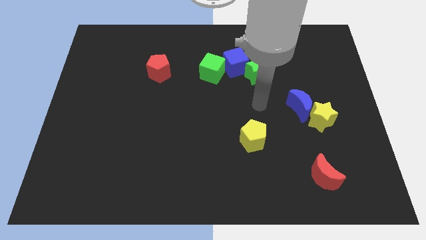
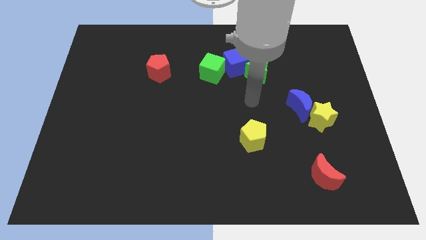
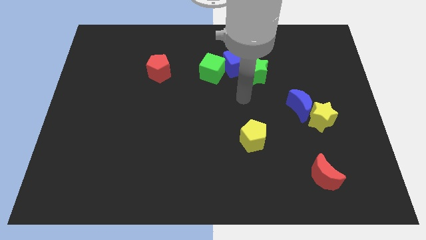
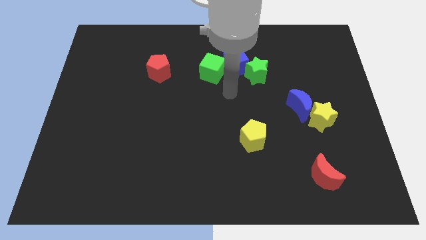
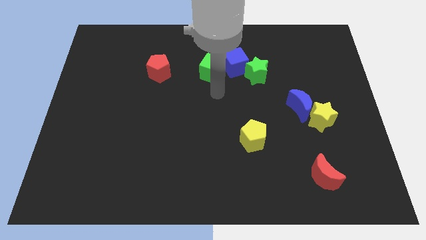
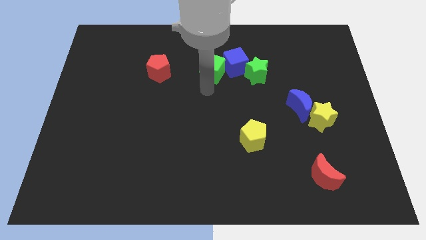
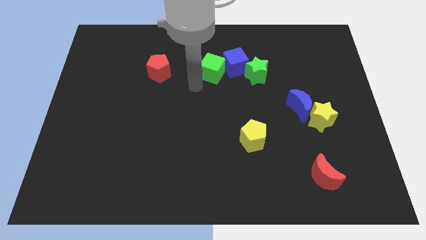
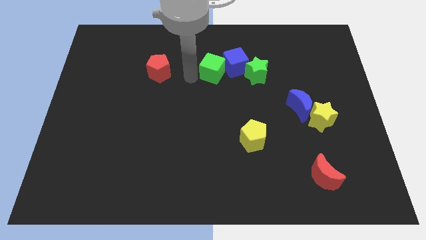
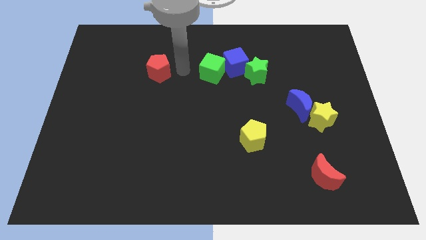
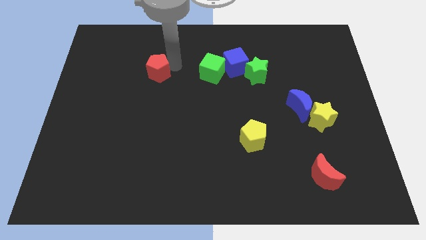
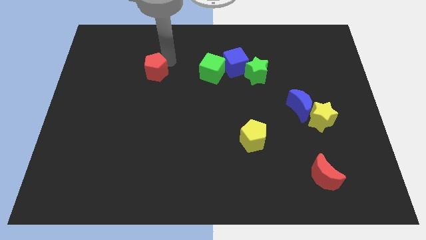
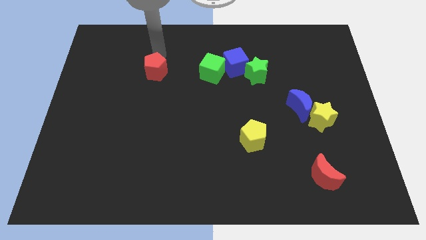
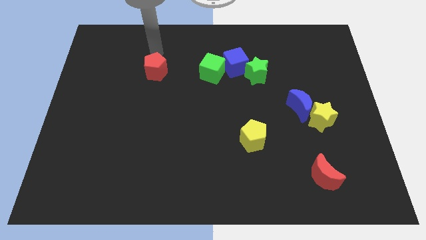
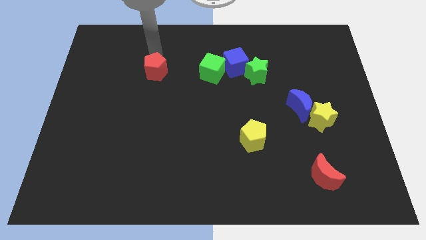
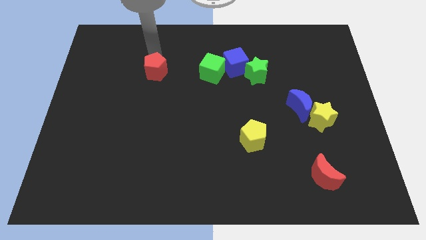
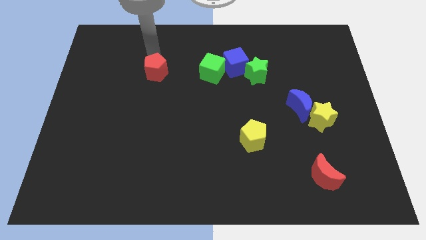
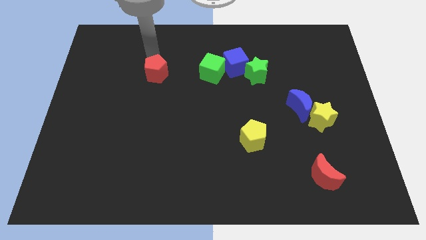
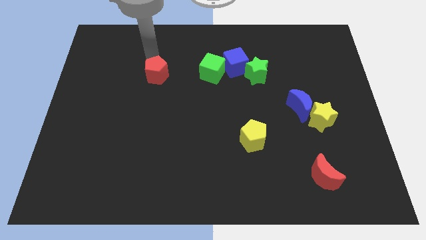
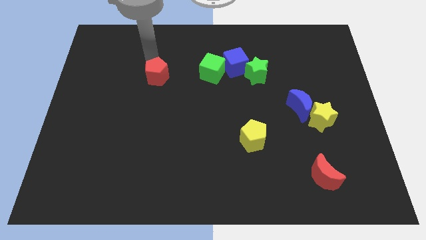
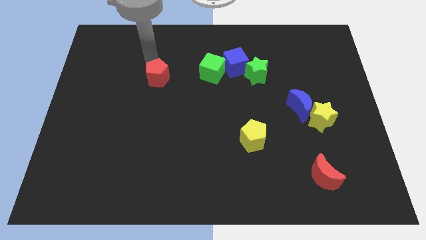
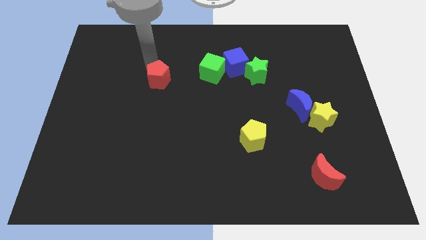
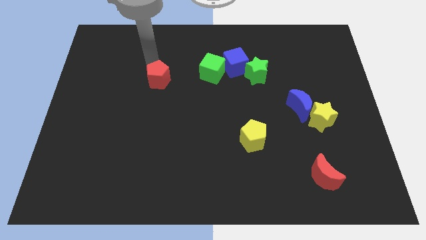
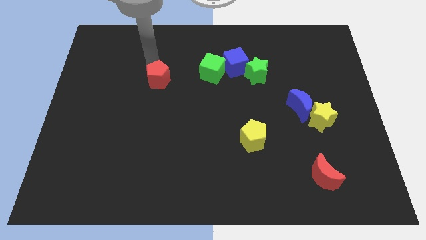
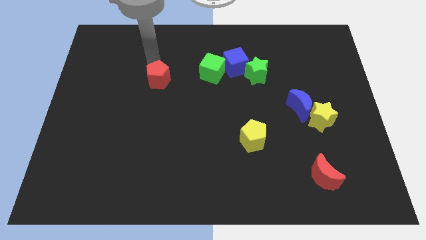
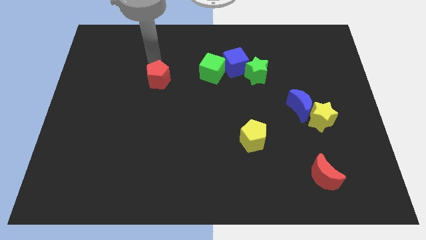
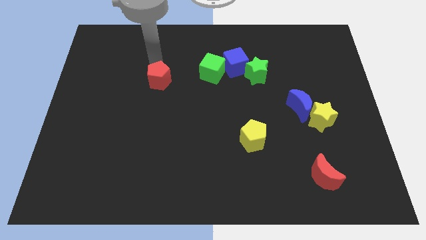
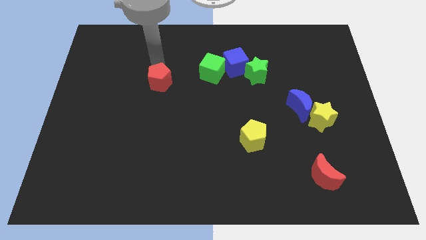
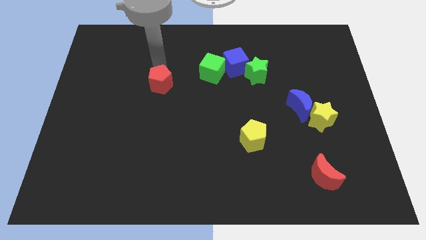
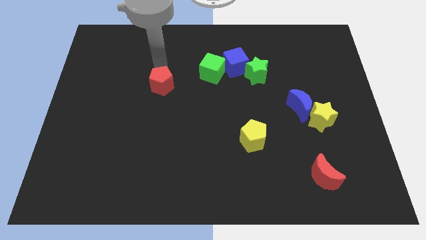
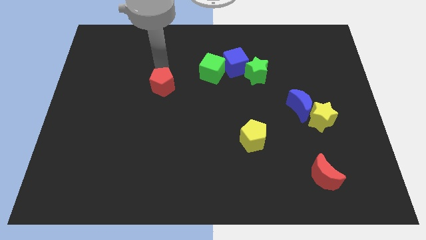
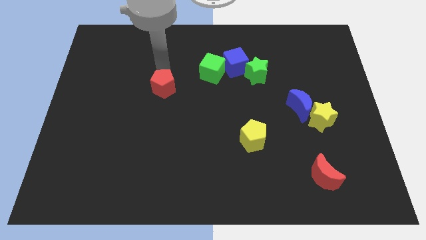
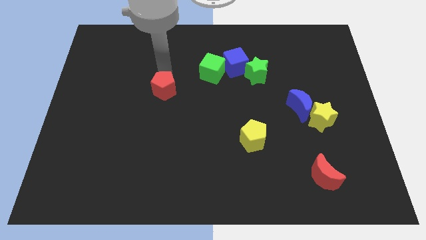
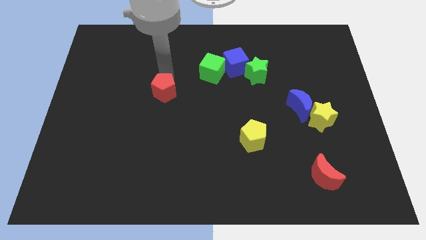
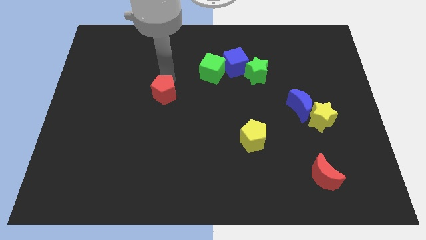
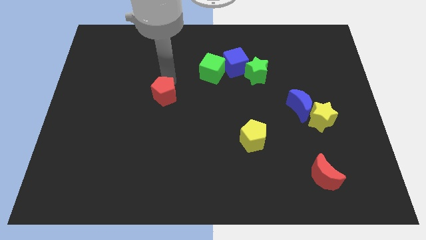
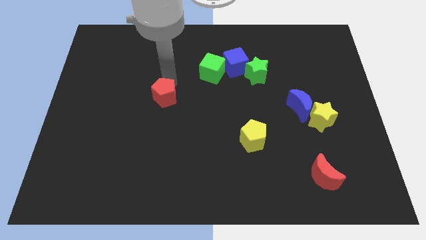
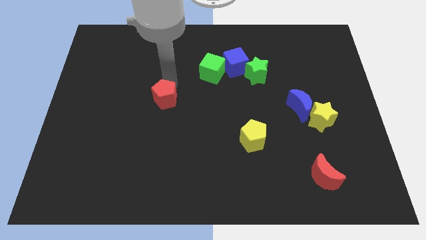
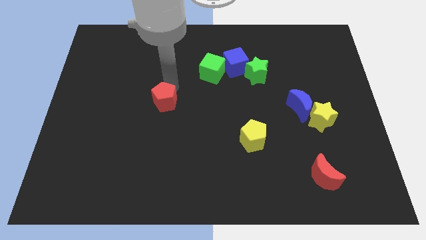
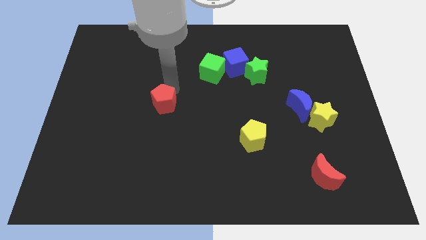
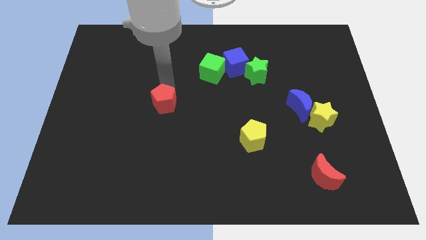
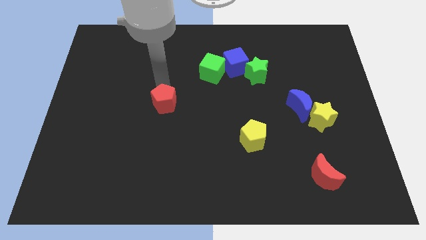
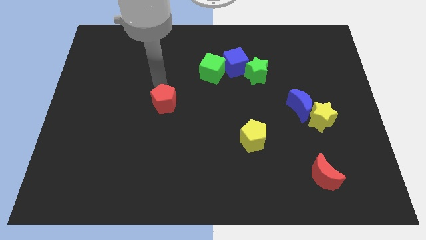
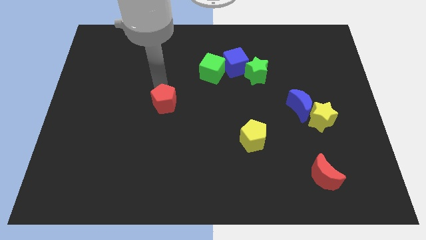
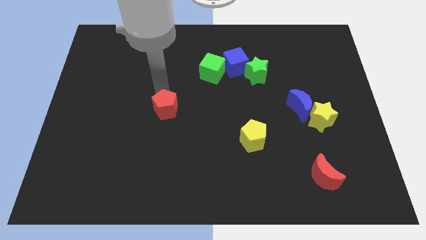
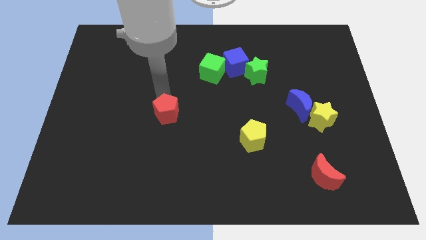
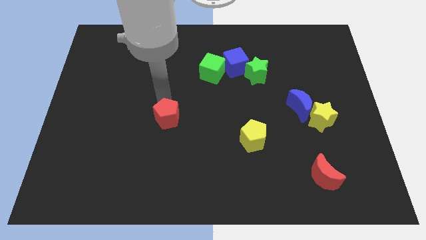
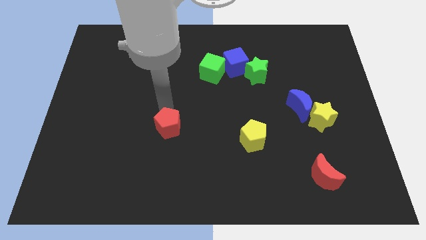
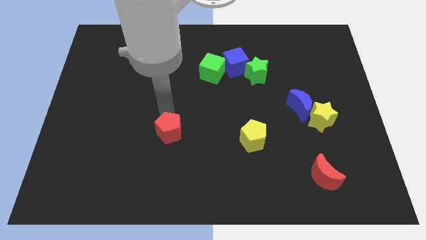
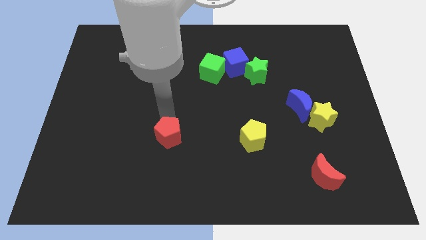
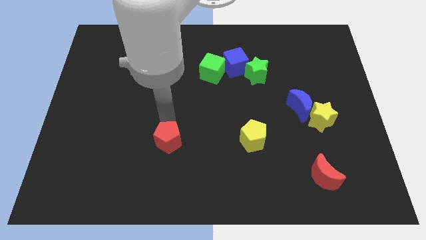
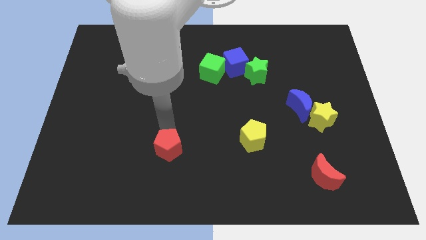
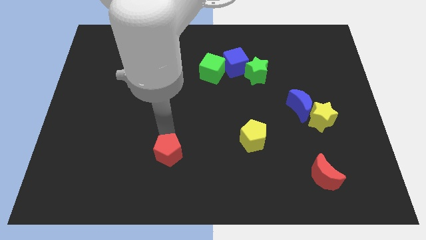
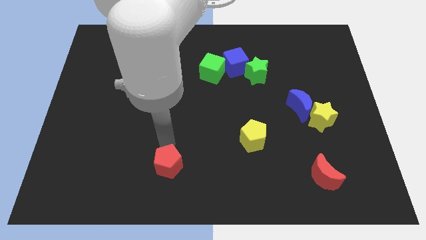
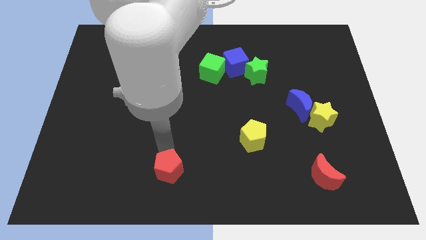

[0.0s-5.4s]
move the red pentagon to the bottom side

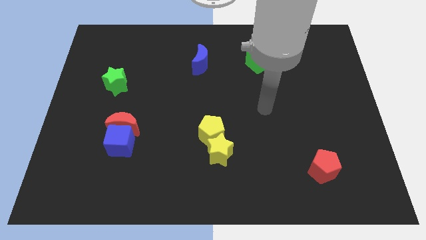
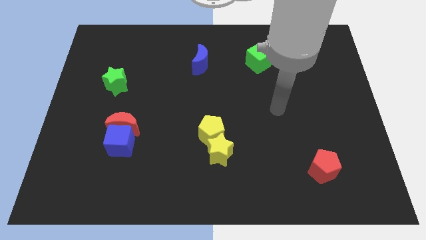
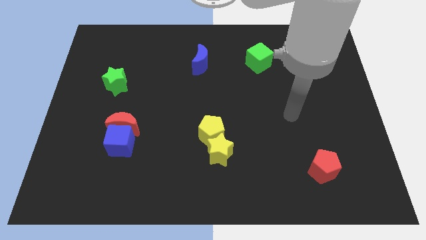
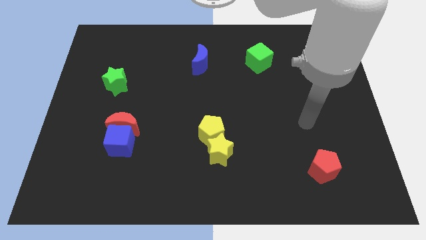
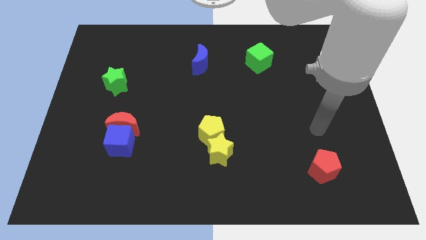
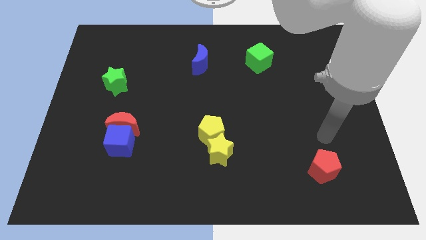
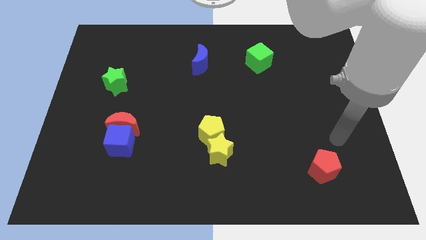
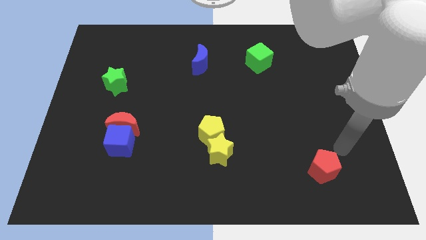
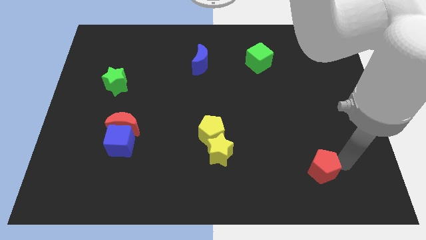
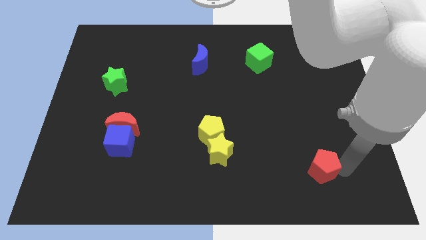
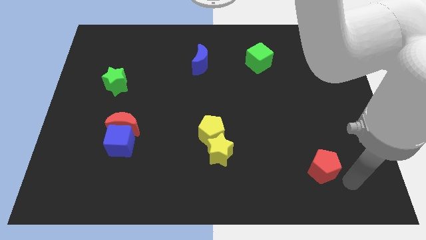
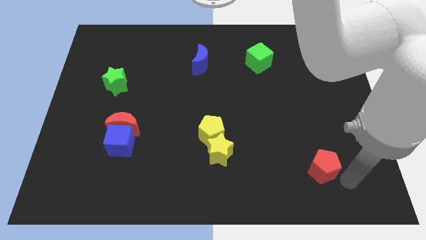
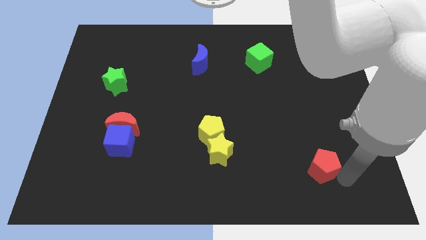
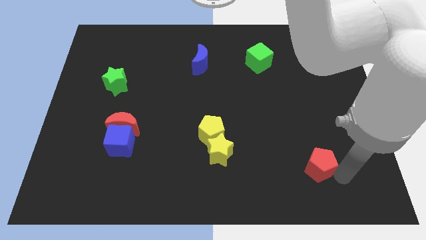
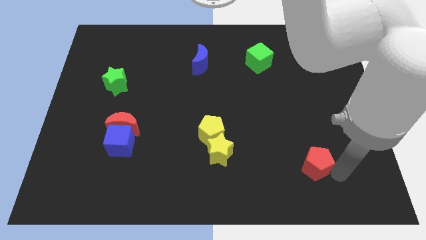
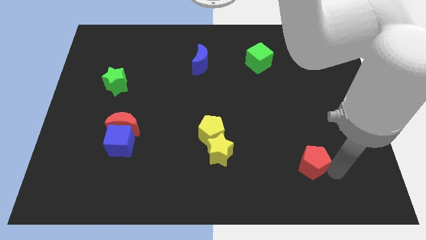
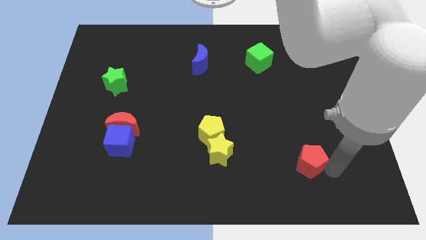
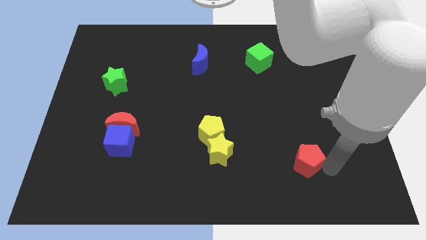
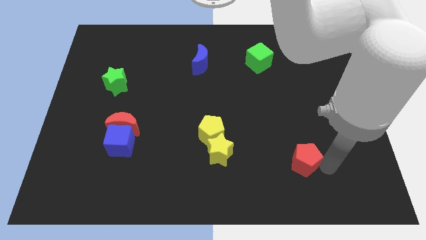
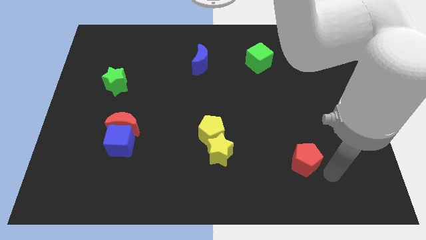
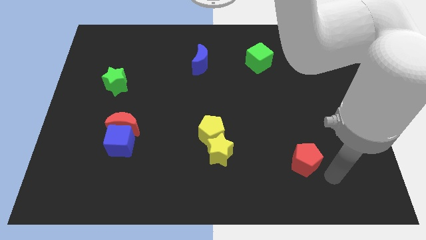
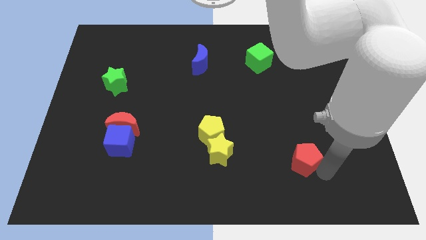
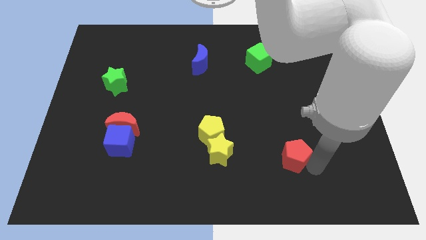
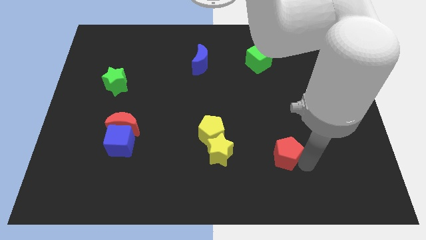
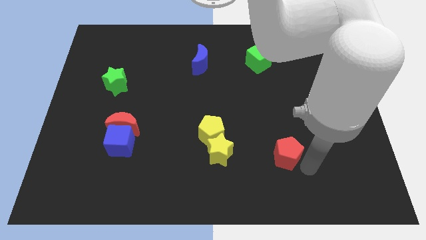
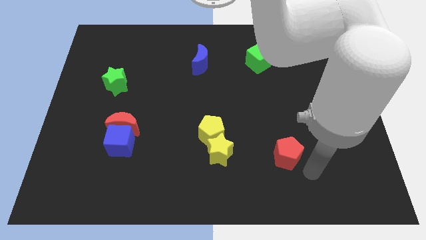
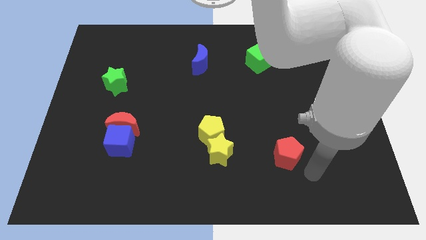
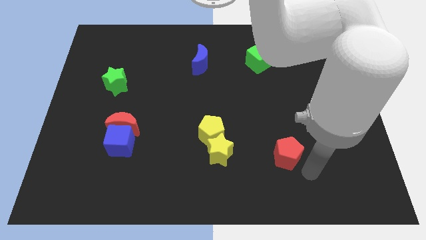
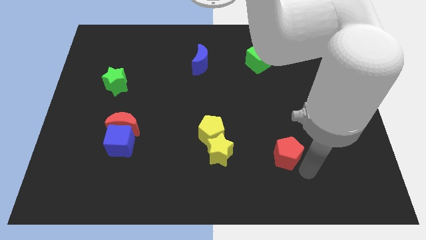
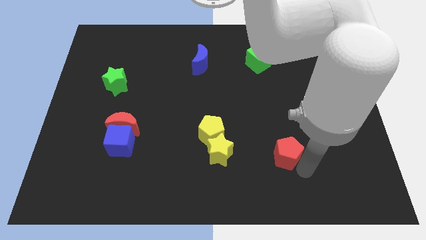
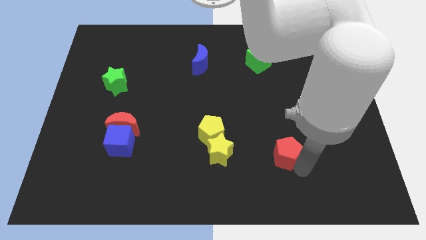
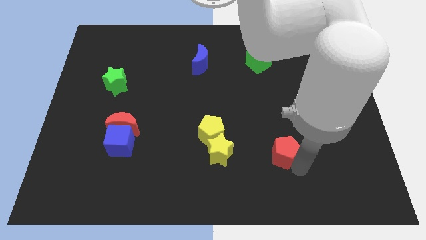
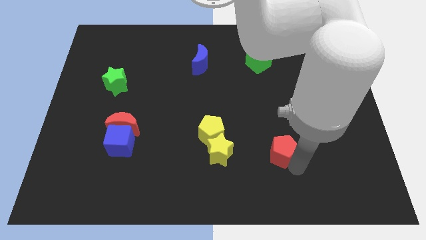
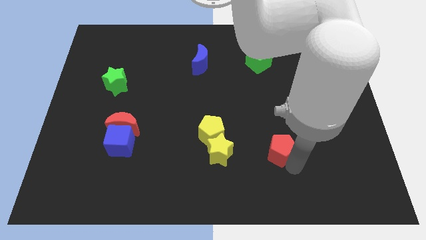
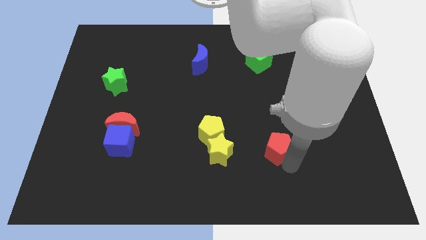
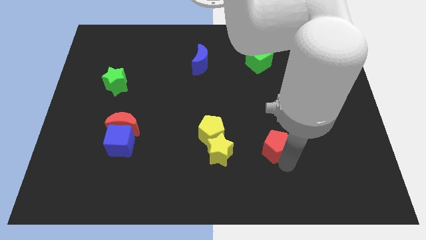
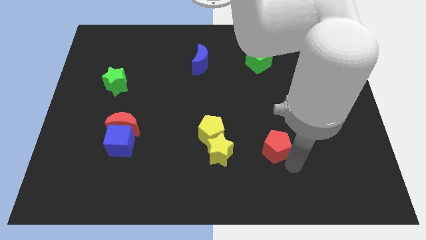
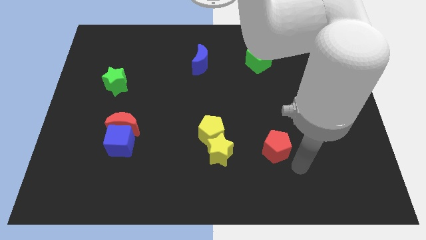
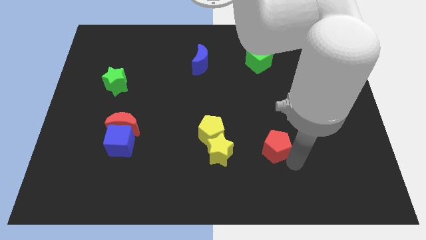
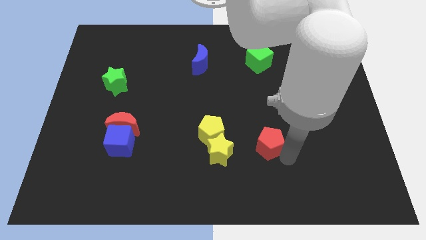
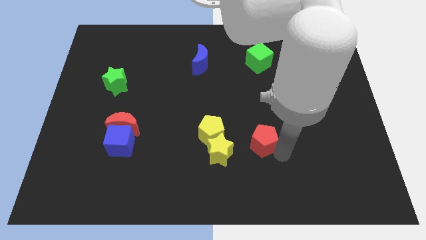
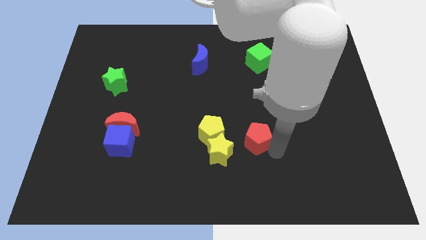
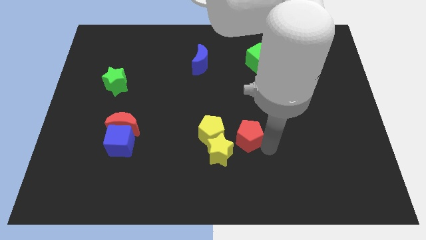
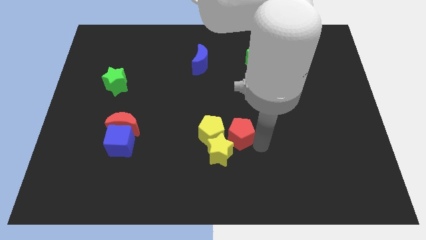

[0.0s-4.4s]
put the red pentagon to the middle of the board
